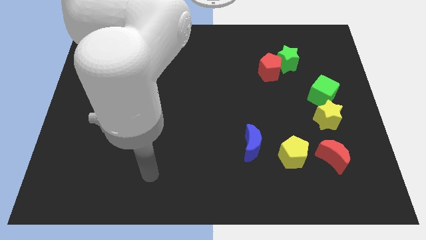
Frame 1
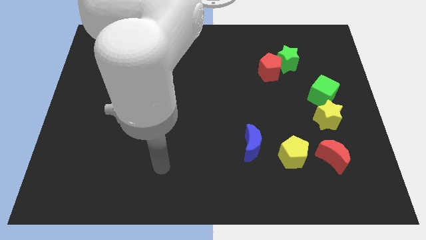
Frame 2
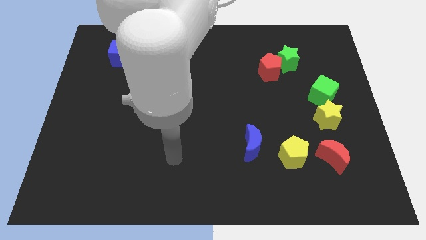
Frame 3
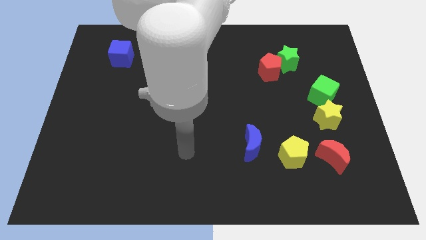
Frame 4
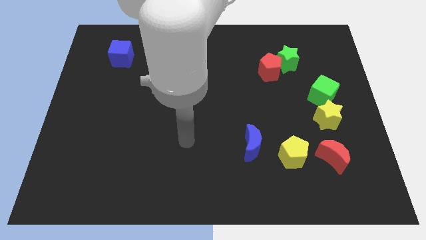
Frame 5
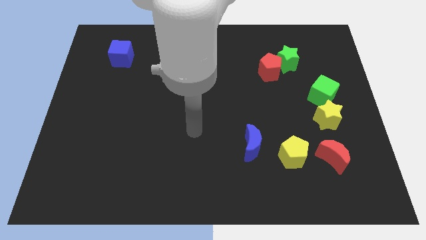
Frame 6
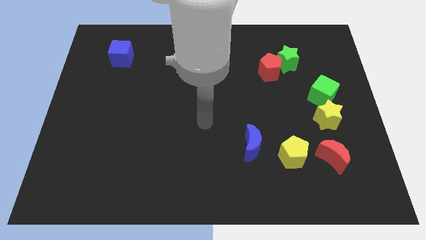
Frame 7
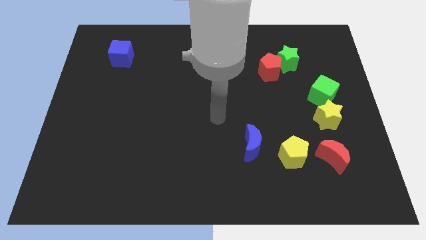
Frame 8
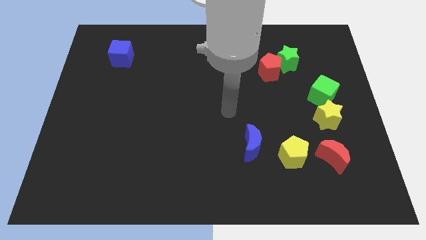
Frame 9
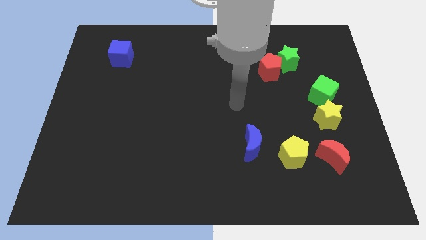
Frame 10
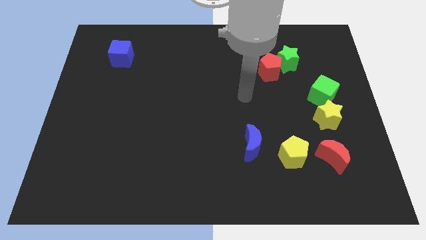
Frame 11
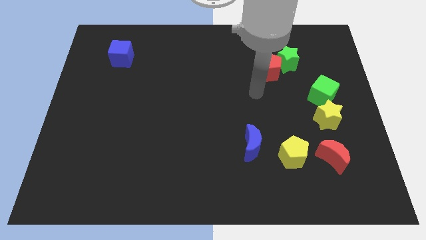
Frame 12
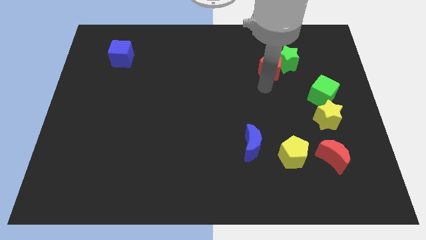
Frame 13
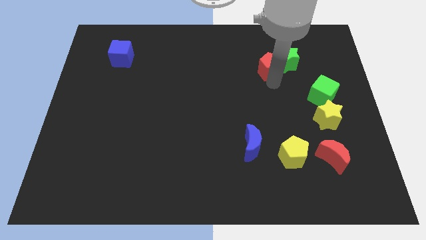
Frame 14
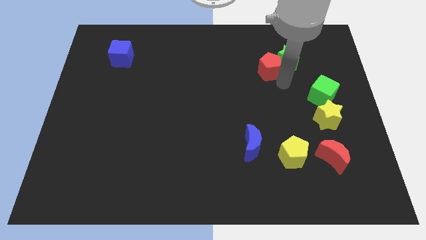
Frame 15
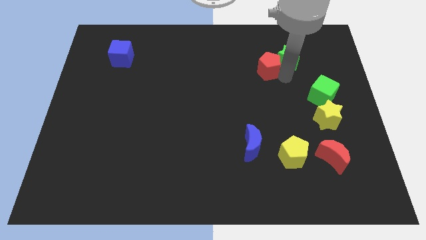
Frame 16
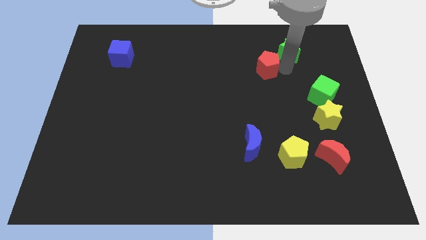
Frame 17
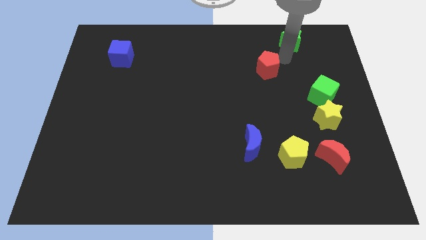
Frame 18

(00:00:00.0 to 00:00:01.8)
pull the red pentagon apart from the green star

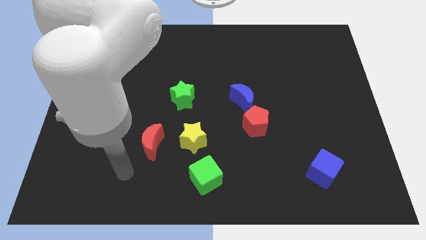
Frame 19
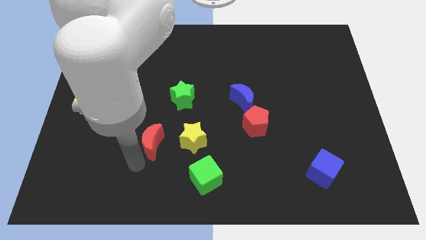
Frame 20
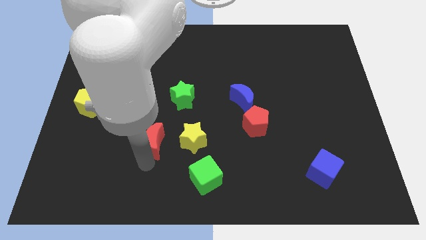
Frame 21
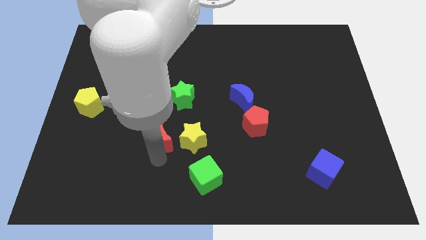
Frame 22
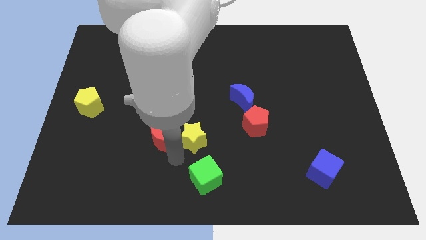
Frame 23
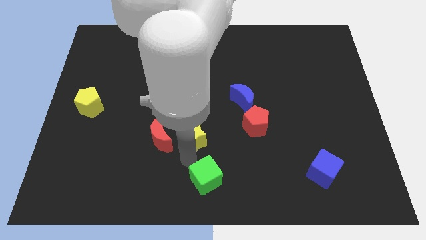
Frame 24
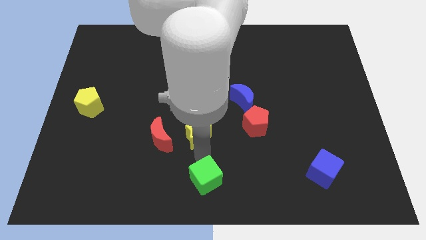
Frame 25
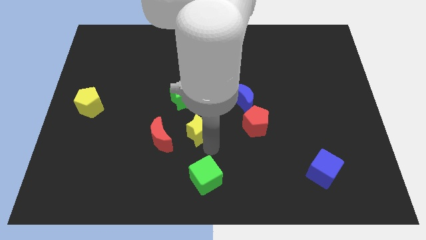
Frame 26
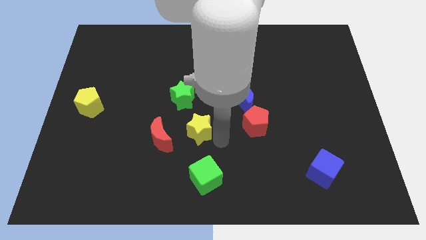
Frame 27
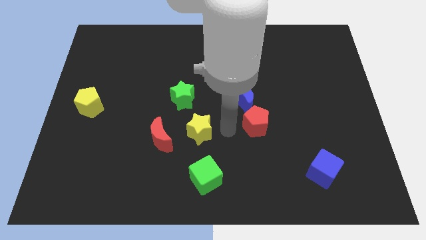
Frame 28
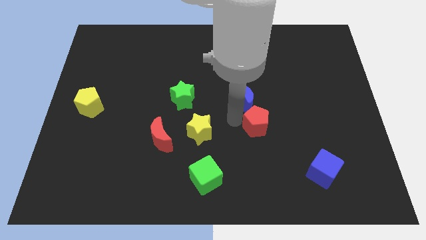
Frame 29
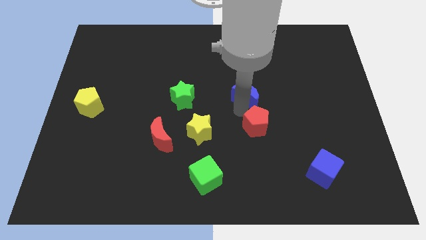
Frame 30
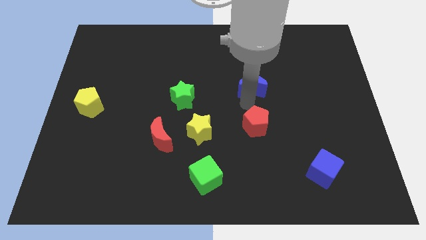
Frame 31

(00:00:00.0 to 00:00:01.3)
move the red pentagon away from the blue moon

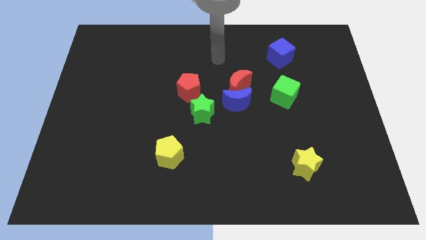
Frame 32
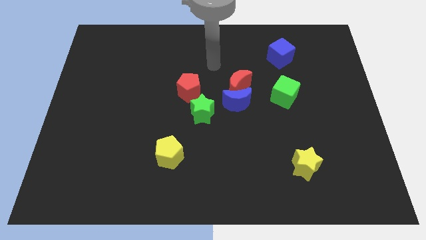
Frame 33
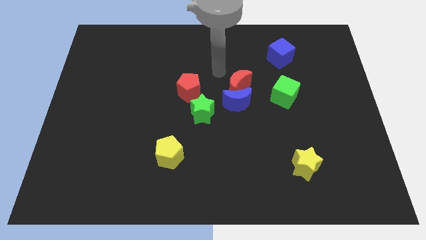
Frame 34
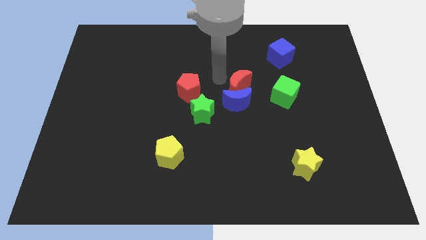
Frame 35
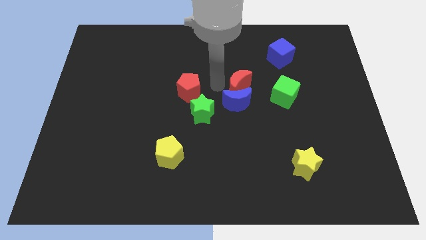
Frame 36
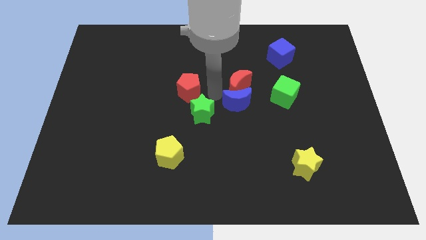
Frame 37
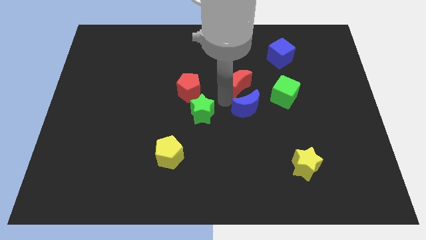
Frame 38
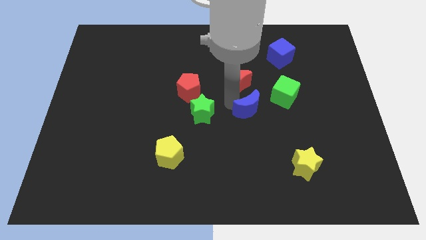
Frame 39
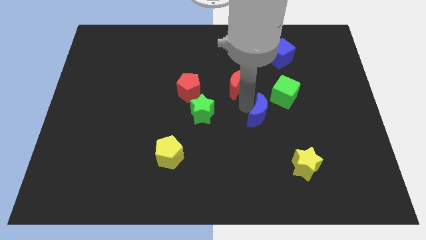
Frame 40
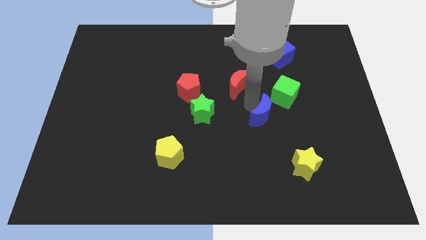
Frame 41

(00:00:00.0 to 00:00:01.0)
move the red moon away from the blue moon

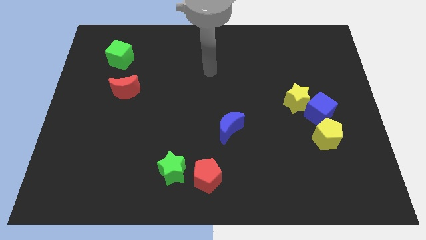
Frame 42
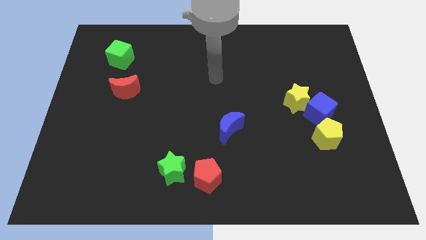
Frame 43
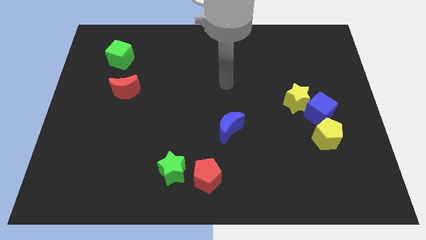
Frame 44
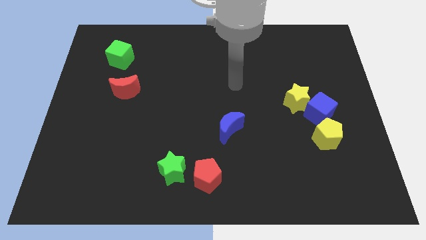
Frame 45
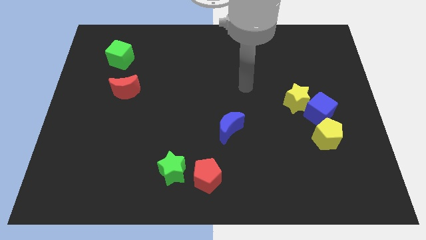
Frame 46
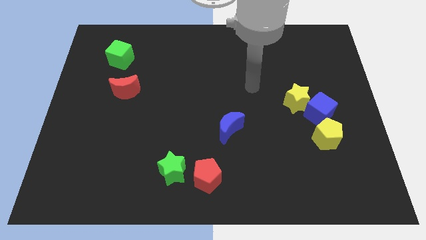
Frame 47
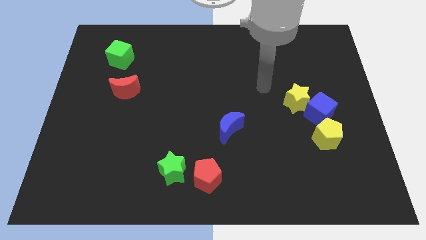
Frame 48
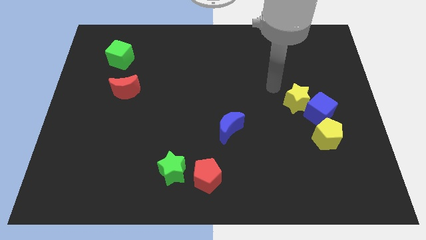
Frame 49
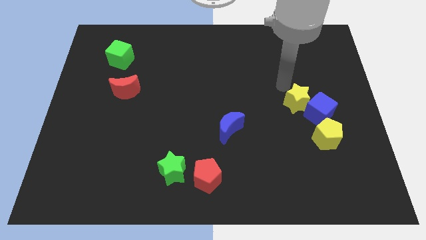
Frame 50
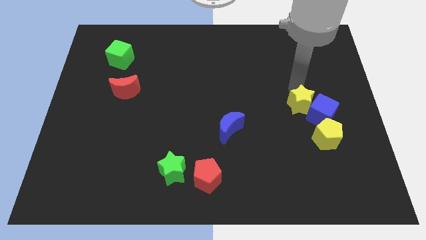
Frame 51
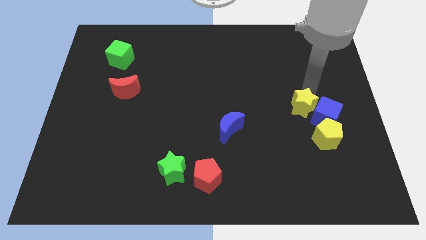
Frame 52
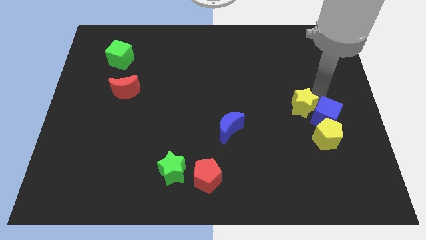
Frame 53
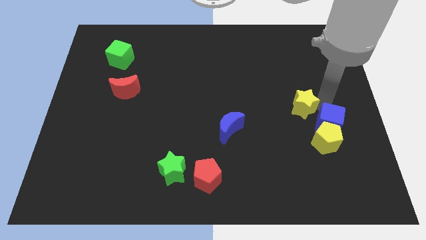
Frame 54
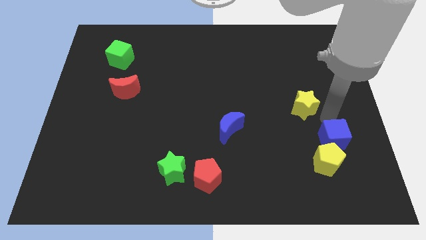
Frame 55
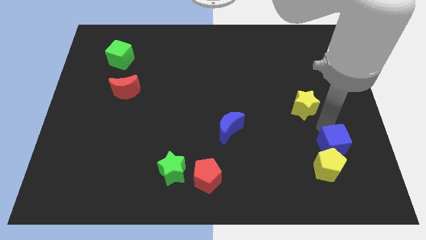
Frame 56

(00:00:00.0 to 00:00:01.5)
separate the yellow star from the blue cube

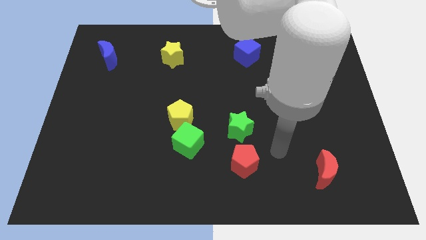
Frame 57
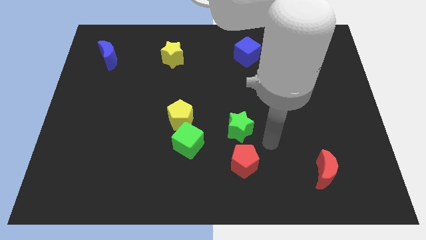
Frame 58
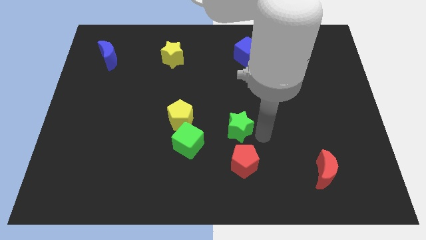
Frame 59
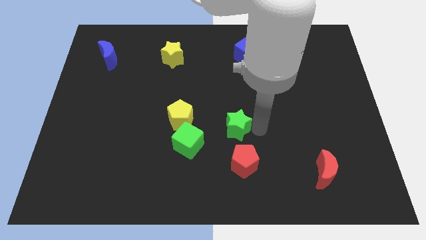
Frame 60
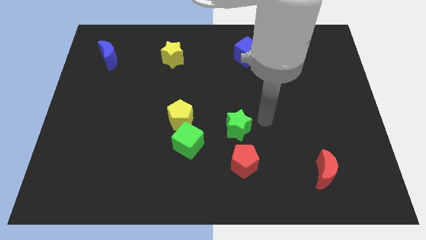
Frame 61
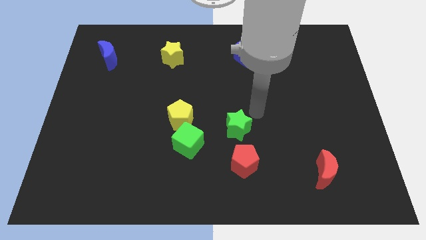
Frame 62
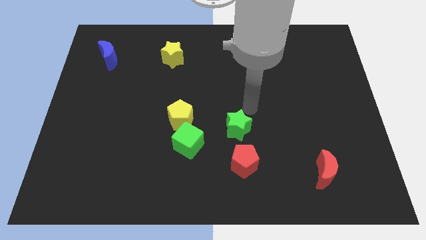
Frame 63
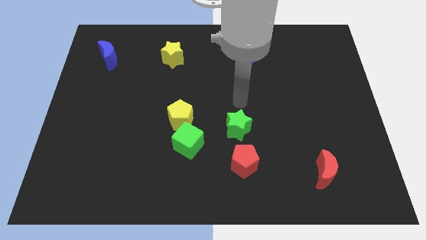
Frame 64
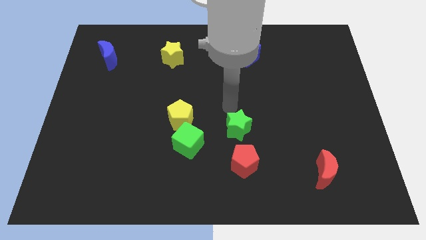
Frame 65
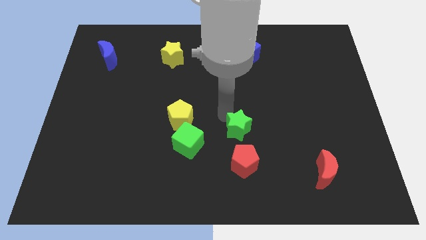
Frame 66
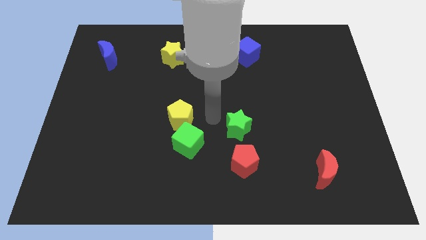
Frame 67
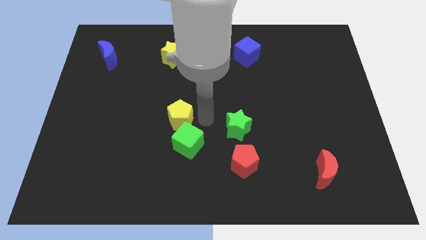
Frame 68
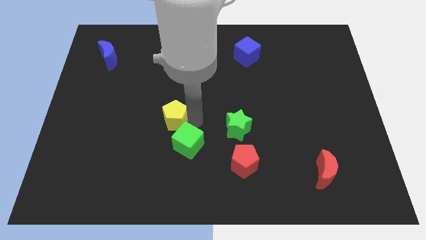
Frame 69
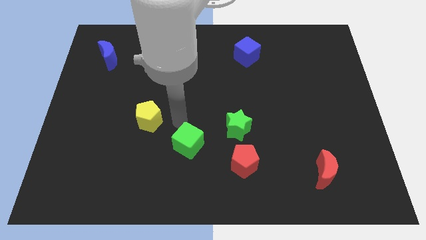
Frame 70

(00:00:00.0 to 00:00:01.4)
move the green cube away from the yellow pentagon

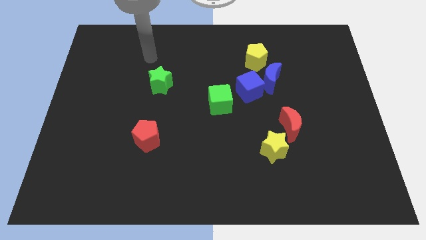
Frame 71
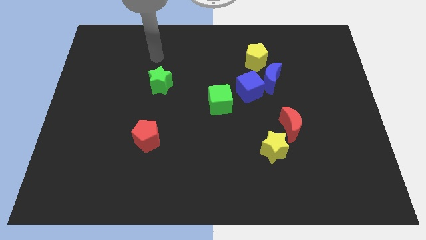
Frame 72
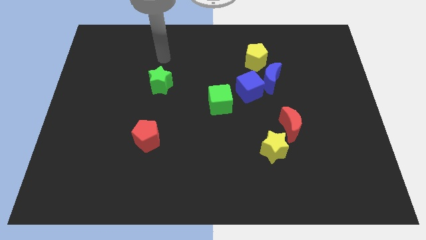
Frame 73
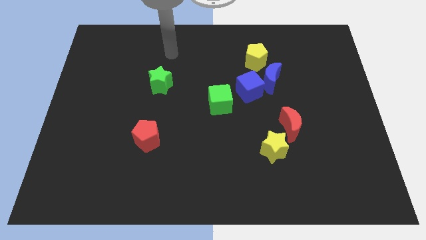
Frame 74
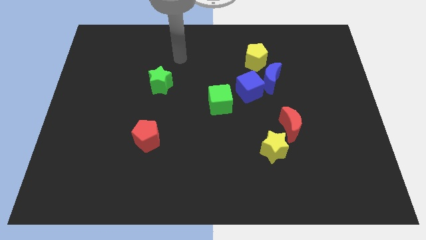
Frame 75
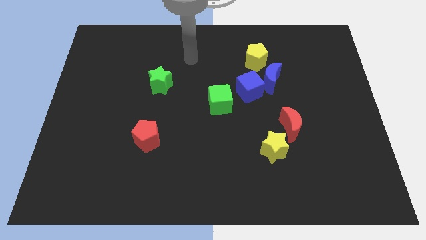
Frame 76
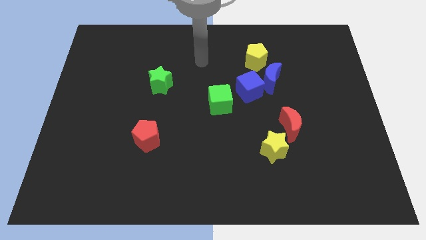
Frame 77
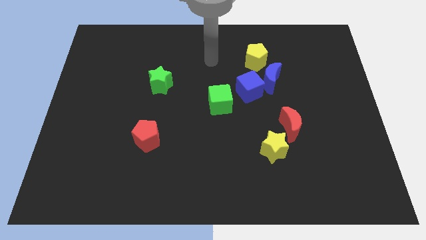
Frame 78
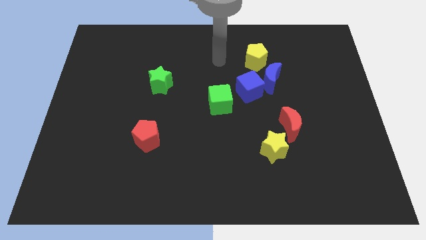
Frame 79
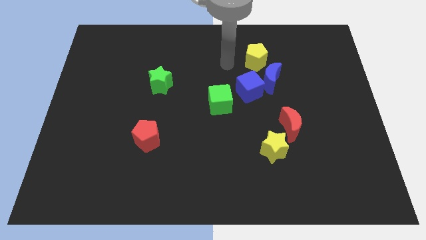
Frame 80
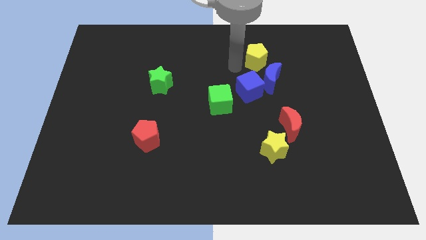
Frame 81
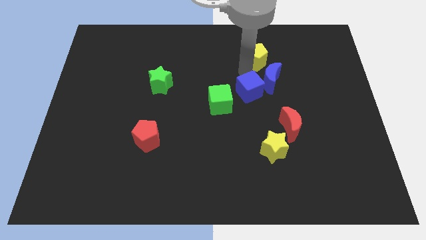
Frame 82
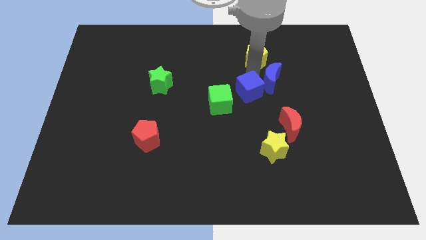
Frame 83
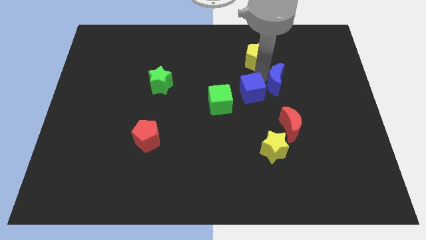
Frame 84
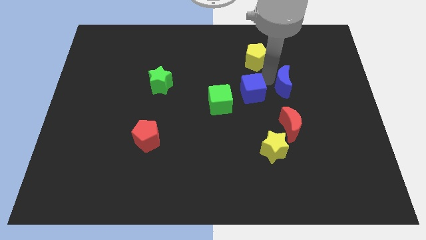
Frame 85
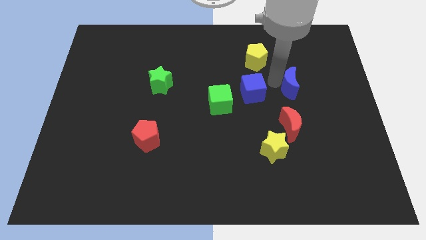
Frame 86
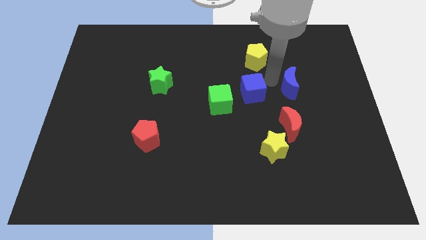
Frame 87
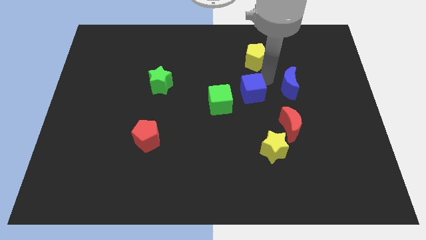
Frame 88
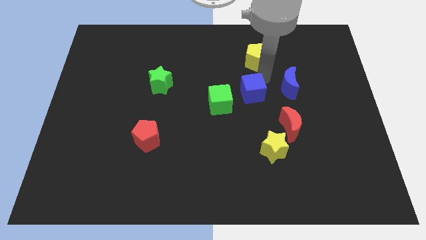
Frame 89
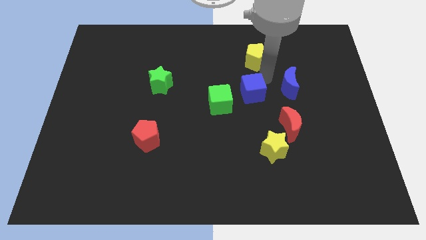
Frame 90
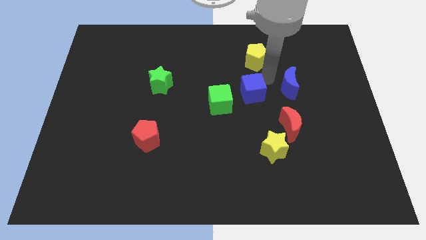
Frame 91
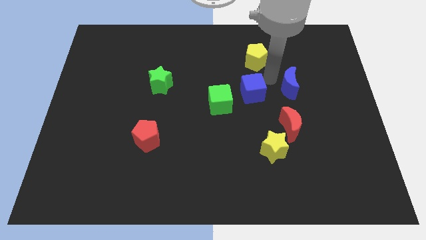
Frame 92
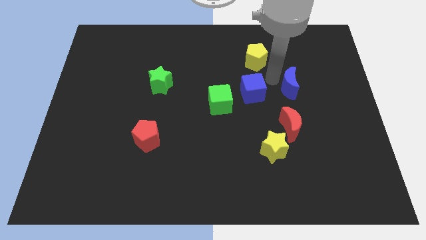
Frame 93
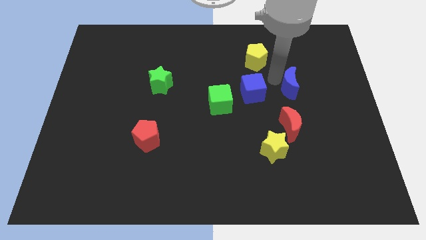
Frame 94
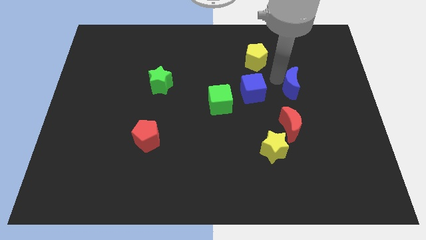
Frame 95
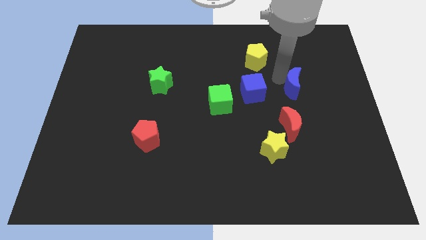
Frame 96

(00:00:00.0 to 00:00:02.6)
separate the blue moon from the blue cube and yellow pentagon
